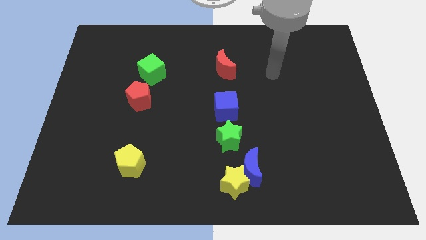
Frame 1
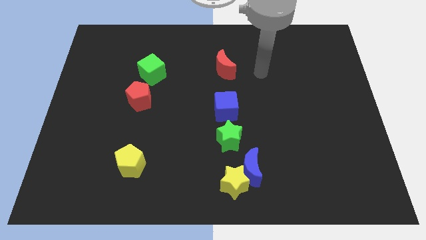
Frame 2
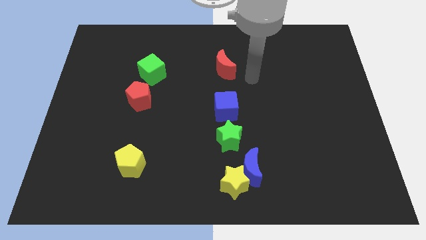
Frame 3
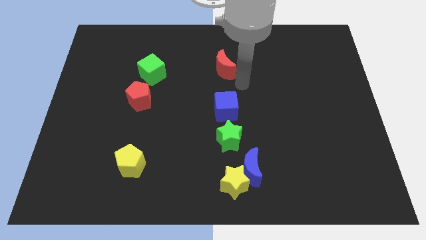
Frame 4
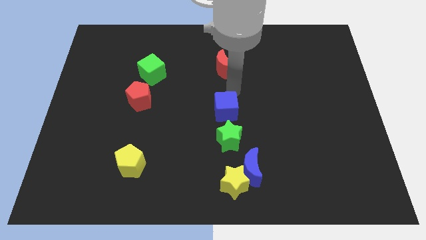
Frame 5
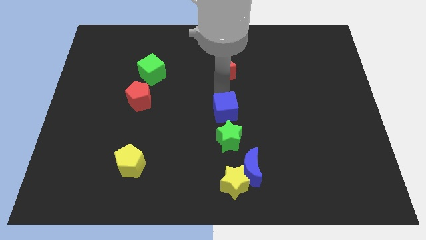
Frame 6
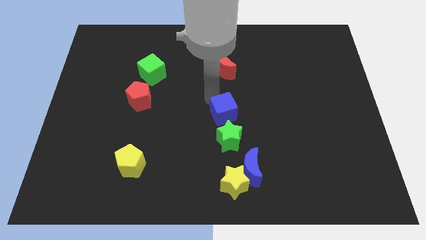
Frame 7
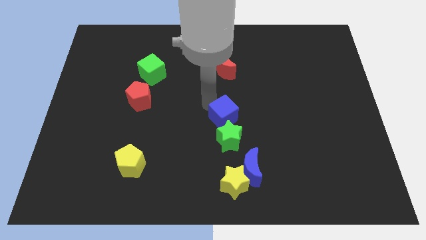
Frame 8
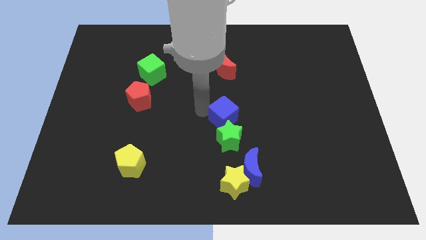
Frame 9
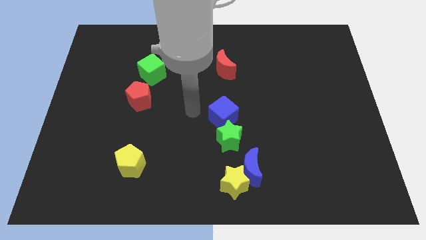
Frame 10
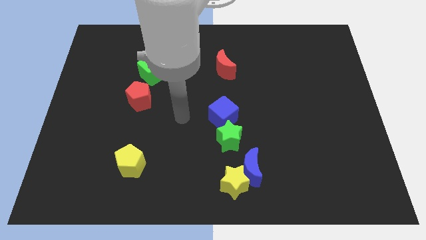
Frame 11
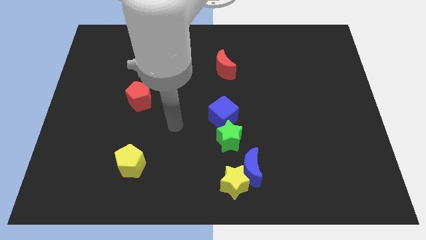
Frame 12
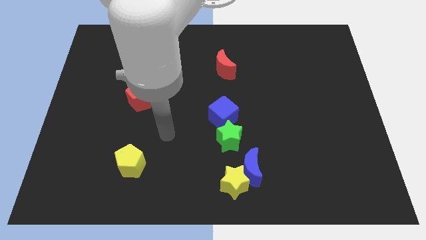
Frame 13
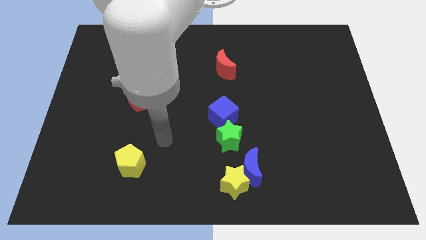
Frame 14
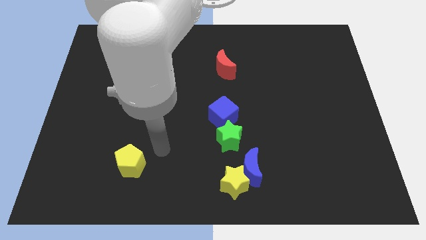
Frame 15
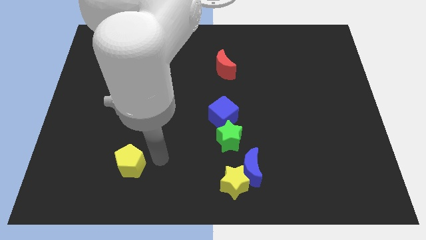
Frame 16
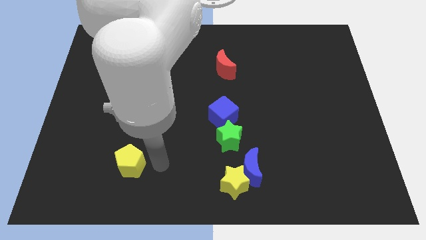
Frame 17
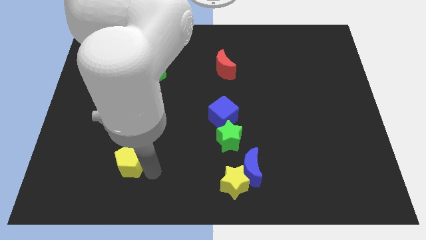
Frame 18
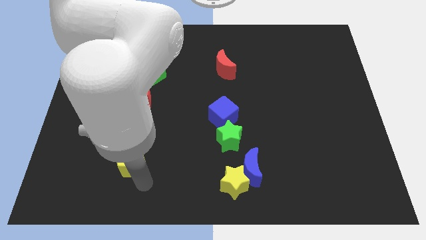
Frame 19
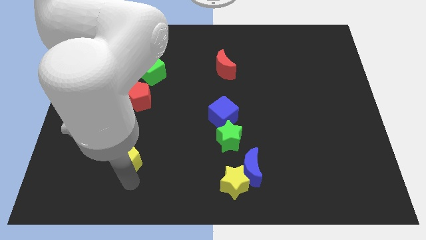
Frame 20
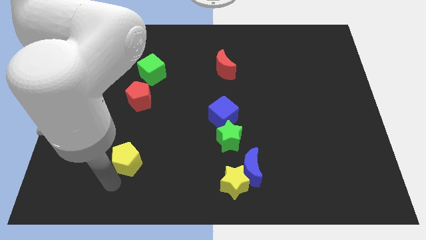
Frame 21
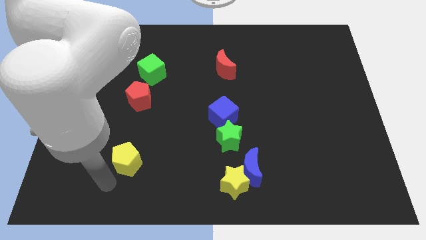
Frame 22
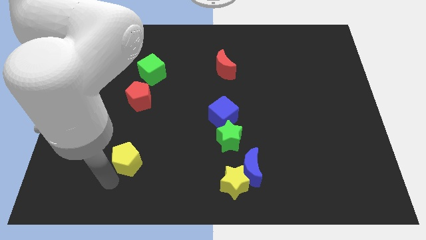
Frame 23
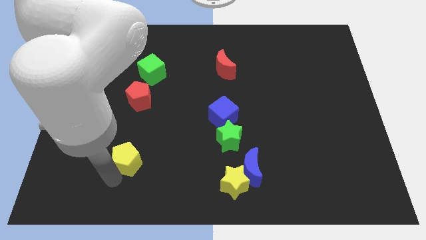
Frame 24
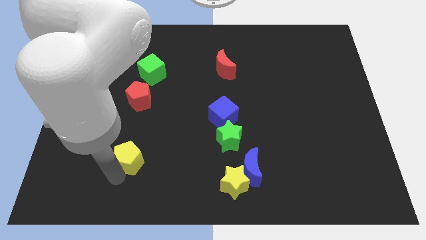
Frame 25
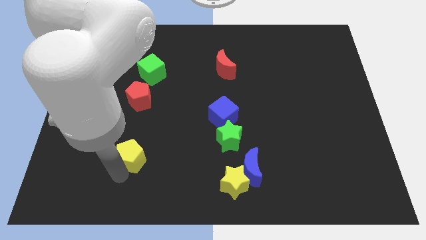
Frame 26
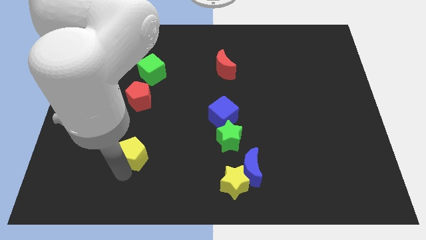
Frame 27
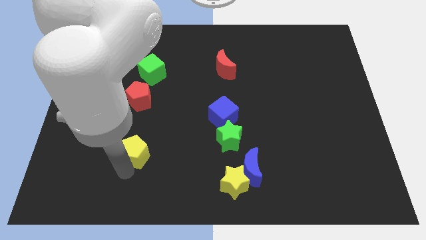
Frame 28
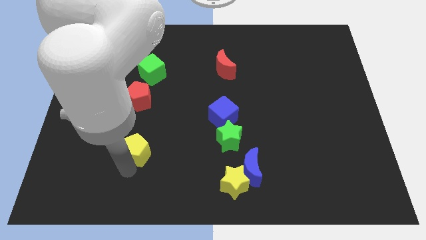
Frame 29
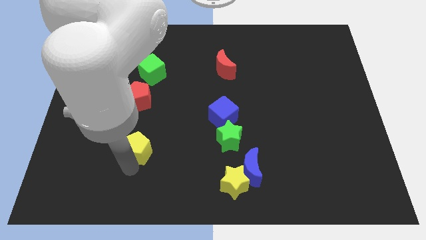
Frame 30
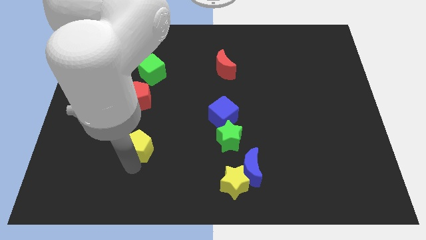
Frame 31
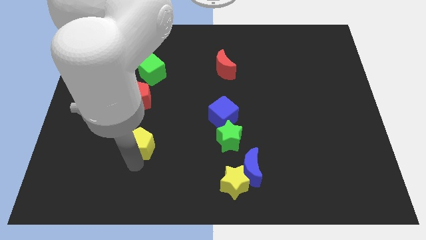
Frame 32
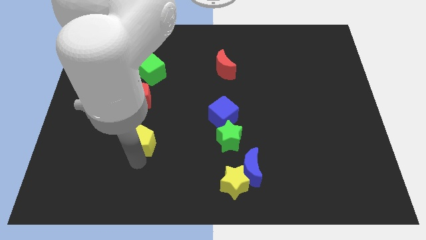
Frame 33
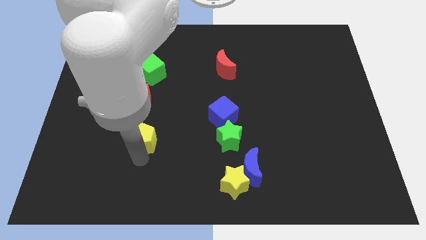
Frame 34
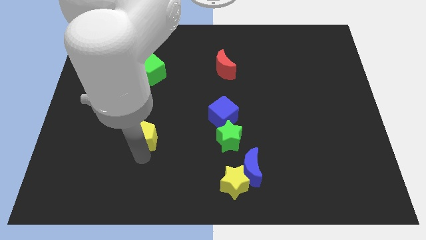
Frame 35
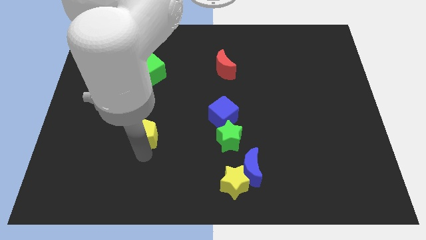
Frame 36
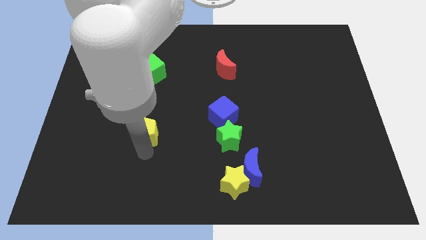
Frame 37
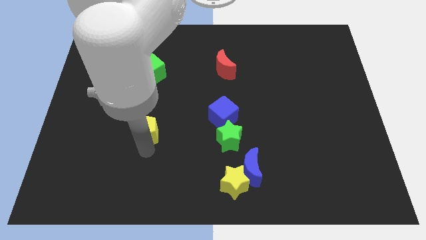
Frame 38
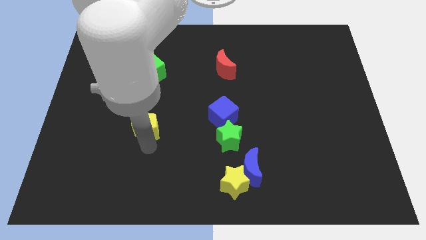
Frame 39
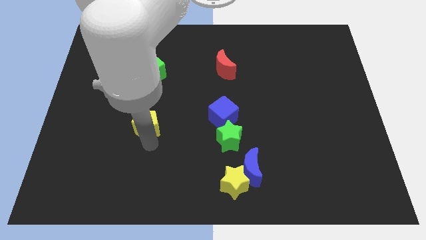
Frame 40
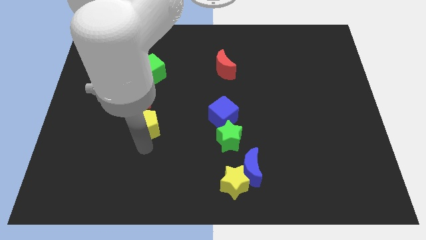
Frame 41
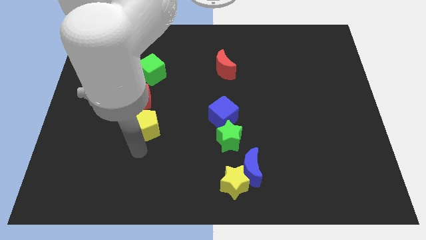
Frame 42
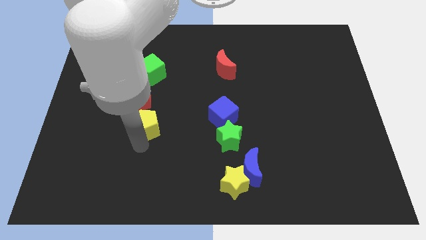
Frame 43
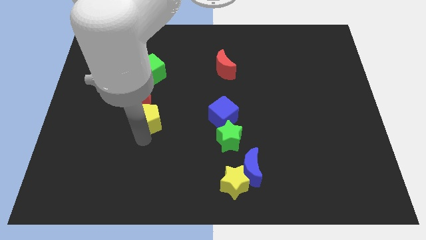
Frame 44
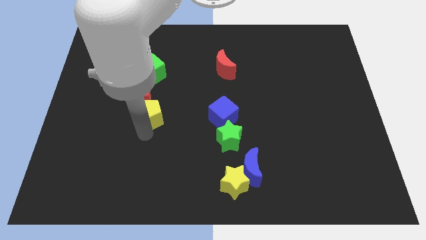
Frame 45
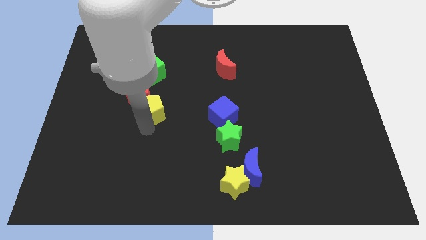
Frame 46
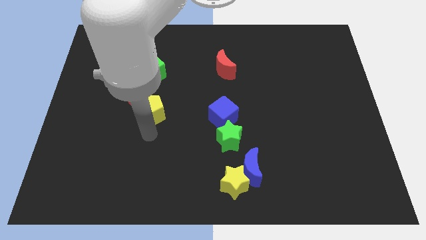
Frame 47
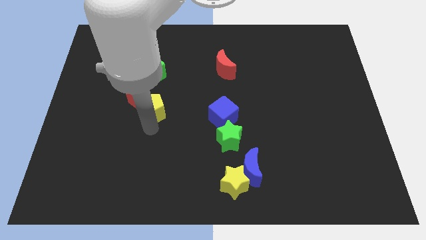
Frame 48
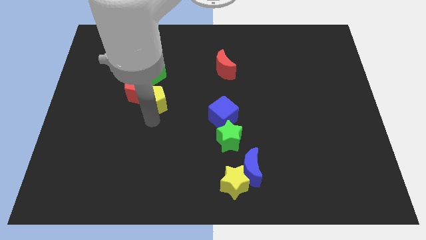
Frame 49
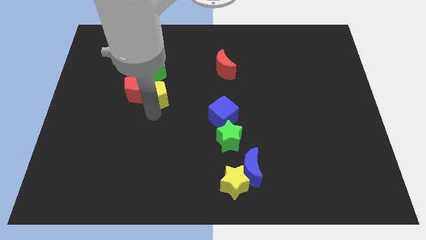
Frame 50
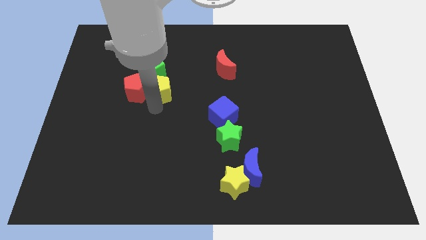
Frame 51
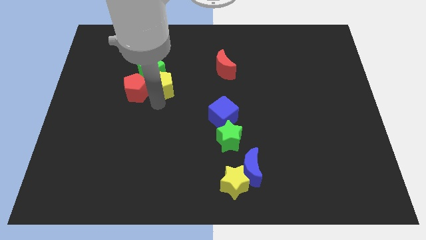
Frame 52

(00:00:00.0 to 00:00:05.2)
put the yellow pentagon towards the green cube

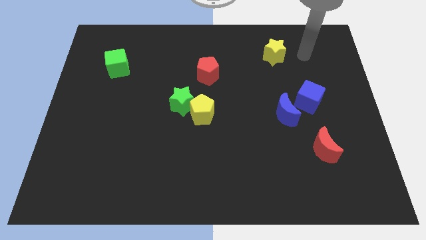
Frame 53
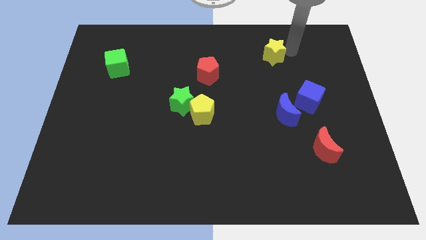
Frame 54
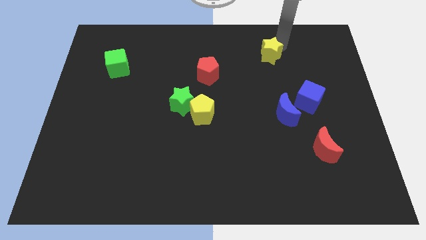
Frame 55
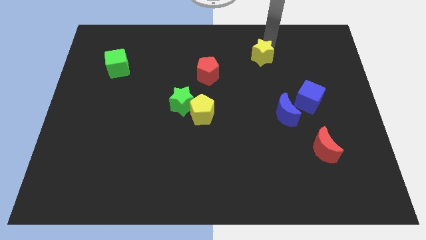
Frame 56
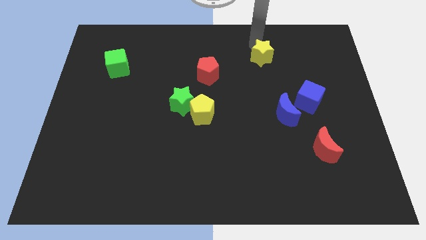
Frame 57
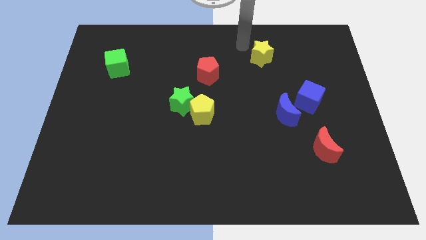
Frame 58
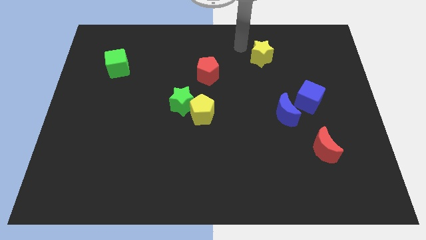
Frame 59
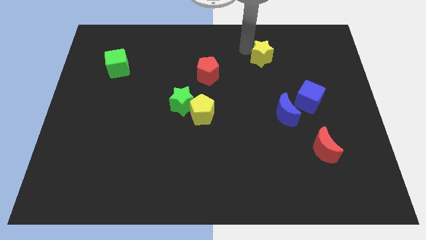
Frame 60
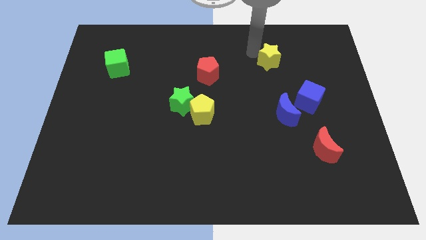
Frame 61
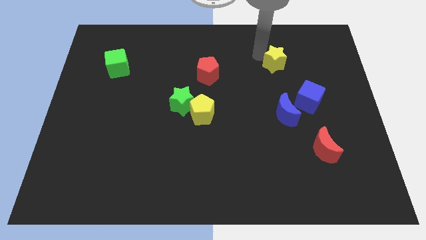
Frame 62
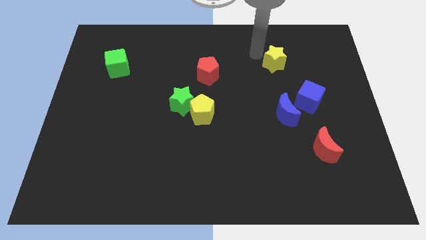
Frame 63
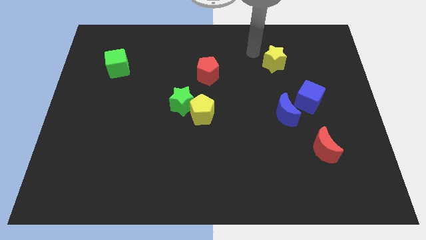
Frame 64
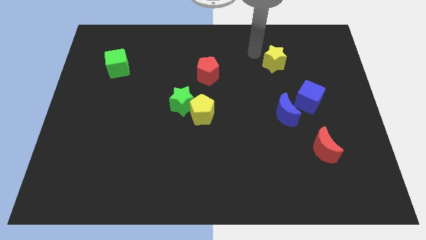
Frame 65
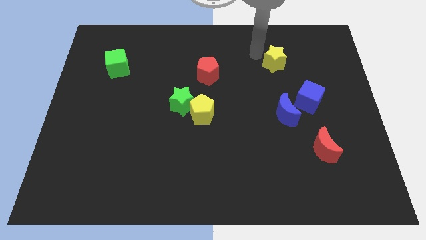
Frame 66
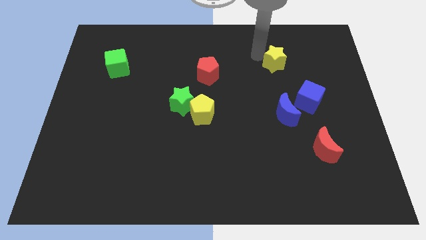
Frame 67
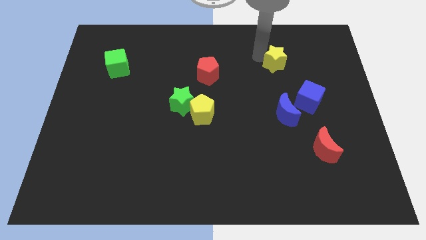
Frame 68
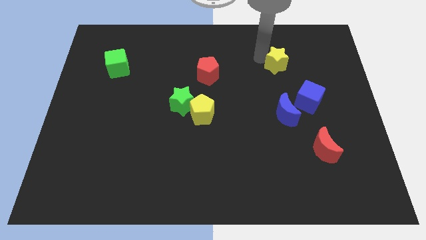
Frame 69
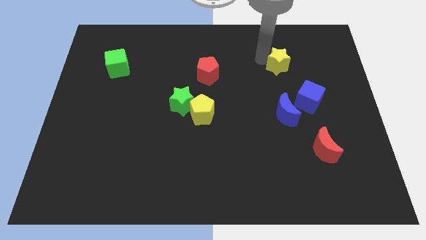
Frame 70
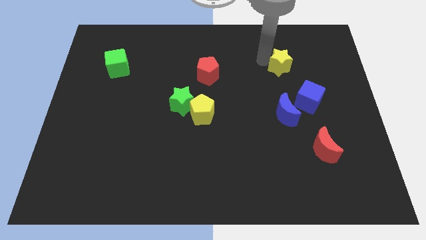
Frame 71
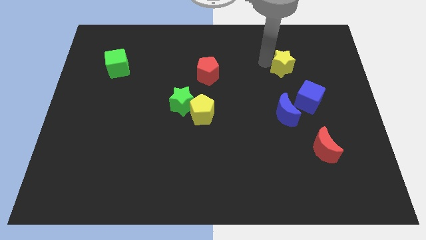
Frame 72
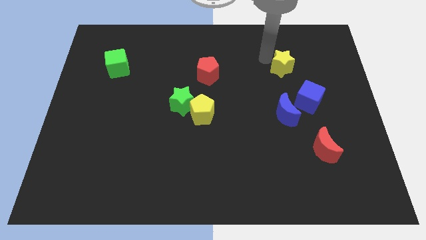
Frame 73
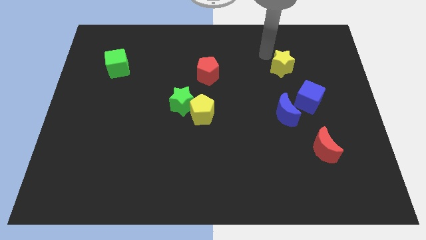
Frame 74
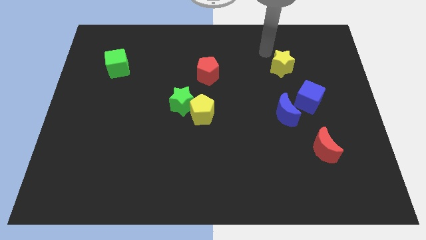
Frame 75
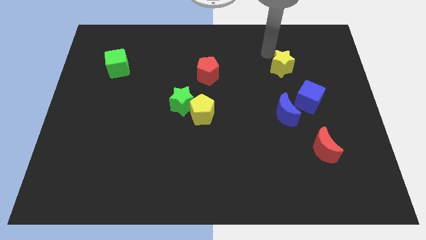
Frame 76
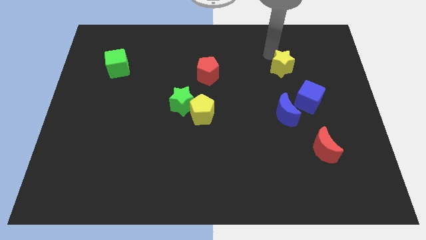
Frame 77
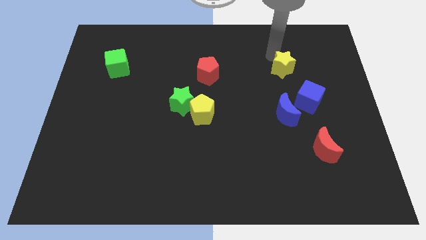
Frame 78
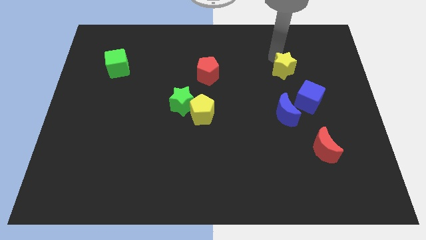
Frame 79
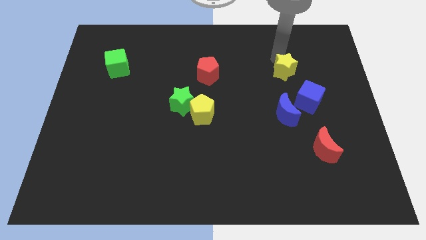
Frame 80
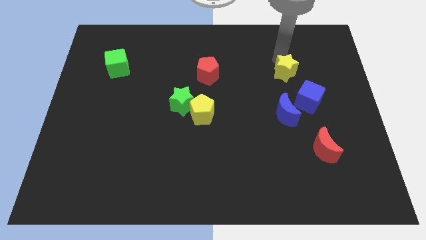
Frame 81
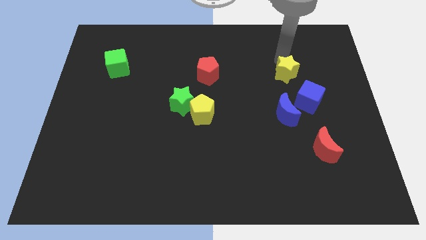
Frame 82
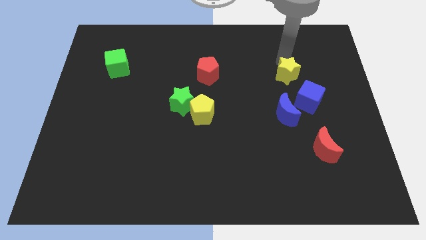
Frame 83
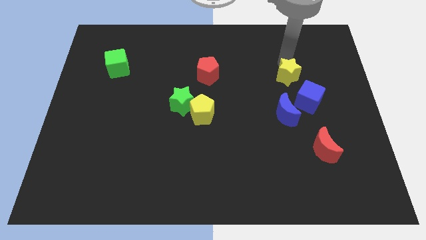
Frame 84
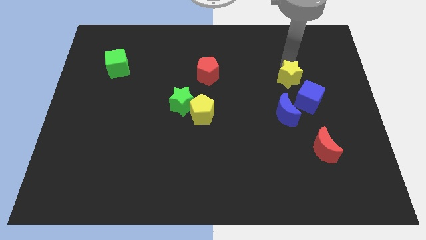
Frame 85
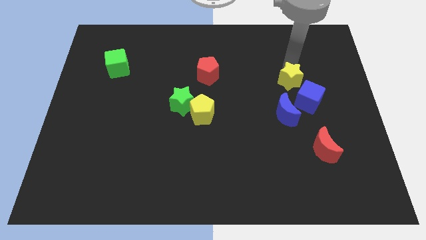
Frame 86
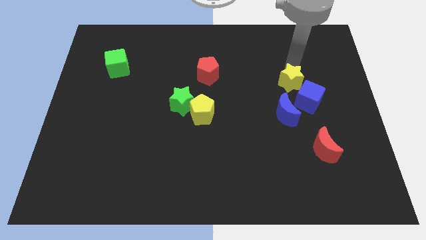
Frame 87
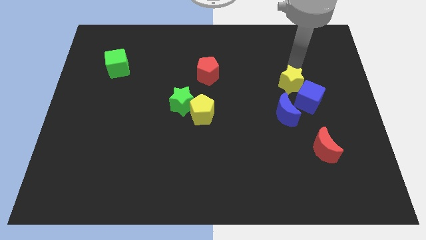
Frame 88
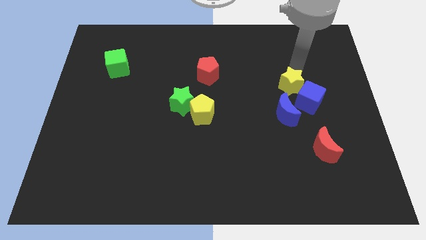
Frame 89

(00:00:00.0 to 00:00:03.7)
push the yellow star to the blue cube
